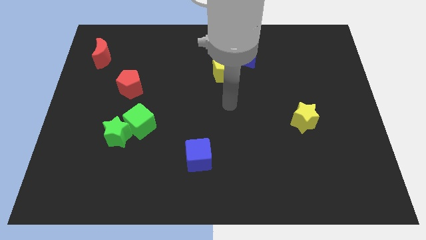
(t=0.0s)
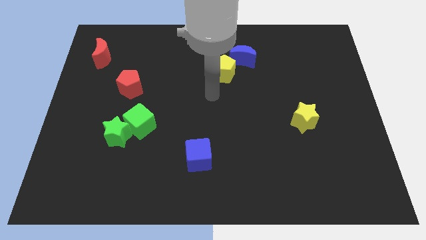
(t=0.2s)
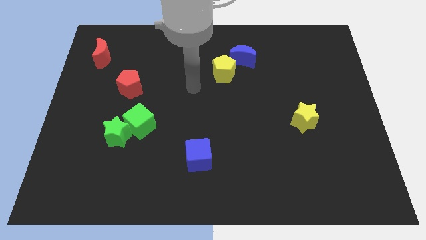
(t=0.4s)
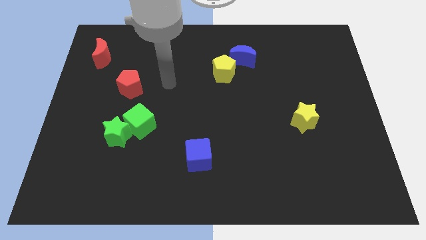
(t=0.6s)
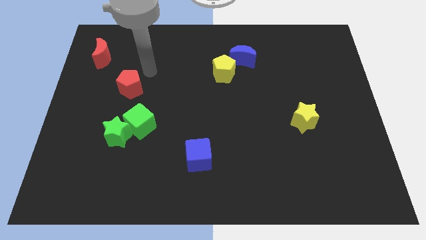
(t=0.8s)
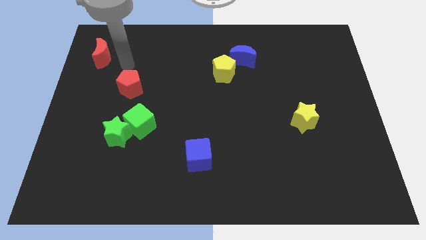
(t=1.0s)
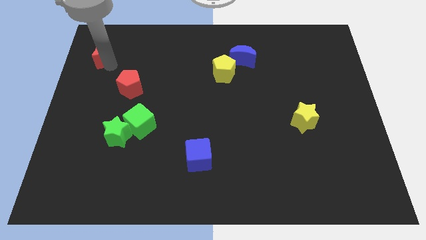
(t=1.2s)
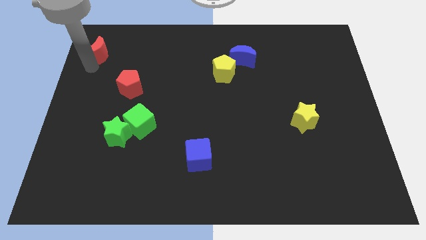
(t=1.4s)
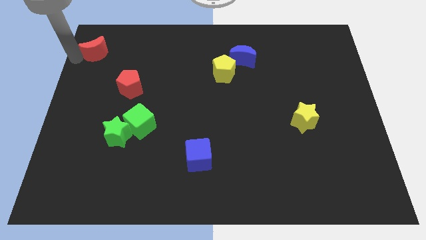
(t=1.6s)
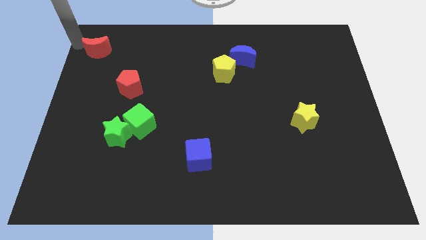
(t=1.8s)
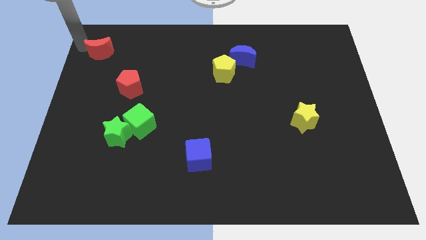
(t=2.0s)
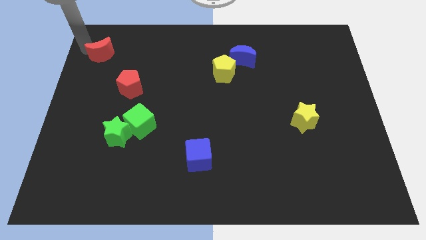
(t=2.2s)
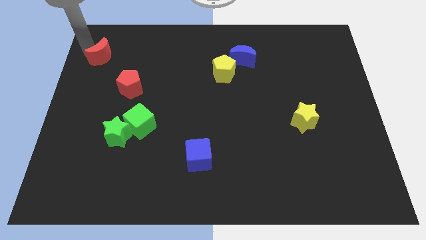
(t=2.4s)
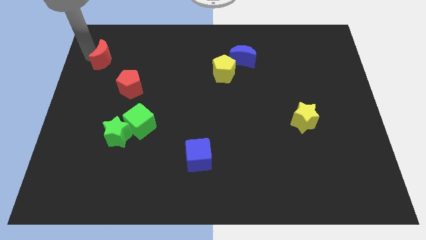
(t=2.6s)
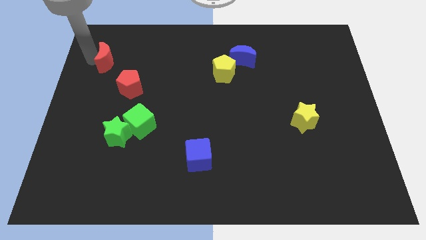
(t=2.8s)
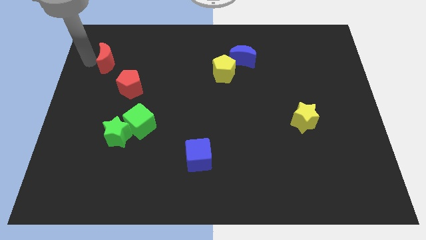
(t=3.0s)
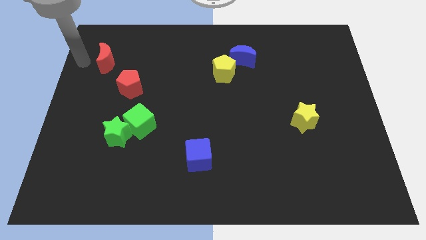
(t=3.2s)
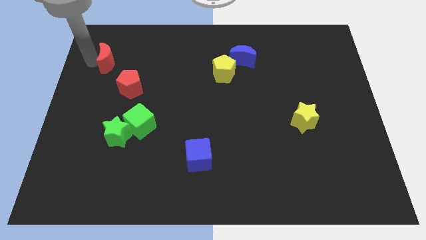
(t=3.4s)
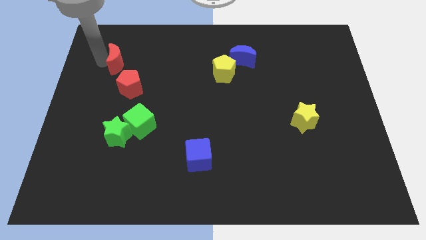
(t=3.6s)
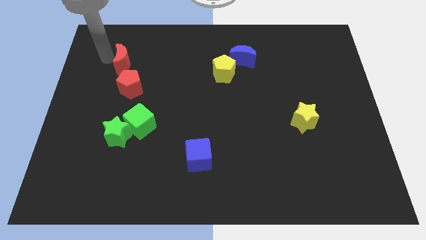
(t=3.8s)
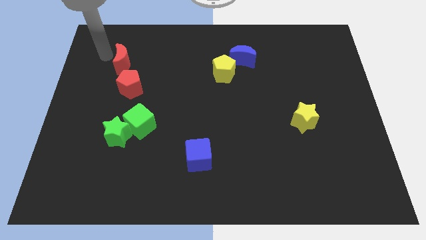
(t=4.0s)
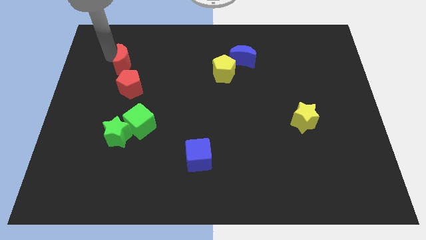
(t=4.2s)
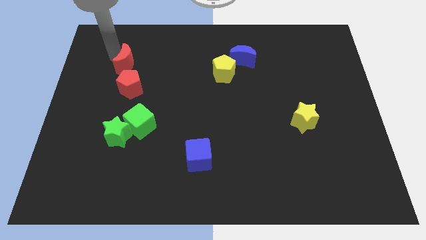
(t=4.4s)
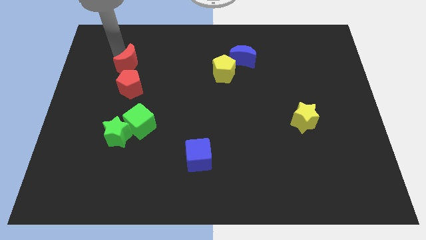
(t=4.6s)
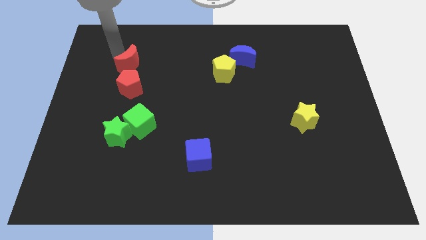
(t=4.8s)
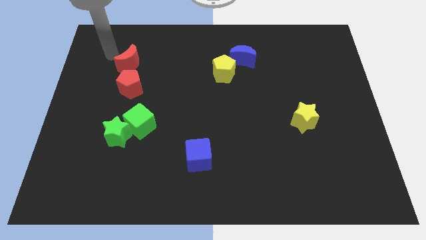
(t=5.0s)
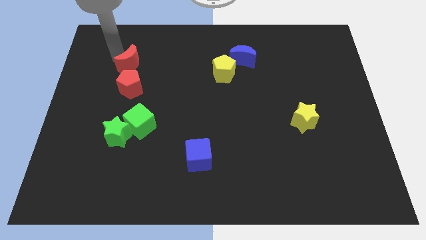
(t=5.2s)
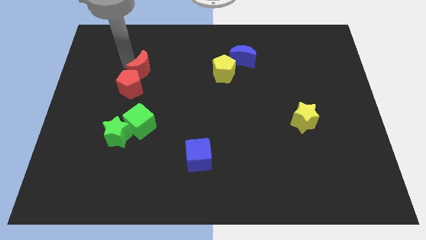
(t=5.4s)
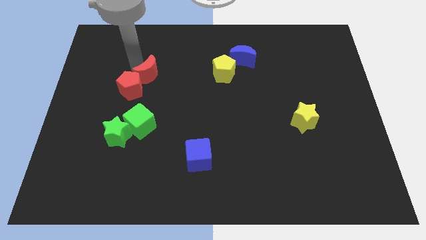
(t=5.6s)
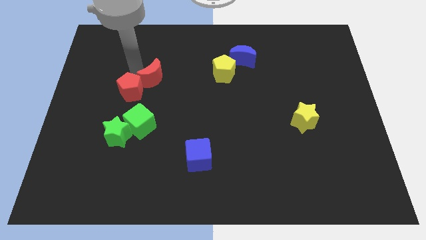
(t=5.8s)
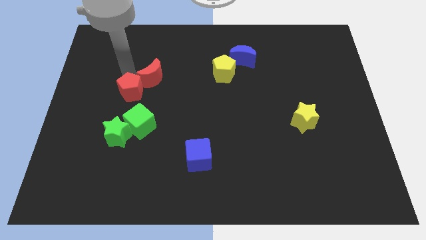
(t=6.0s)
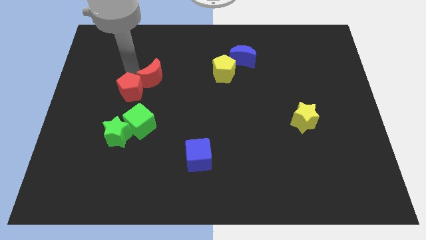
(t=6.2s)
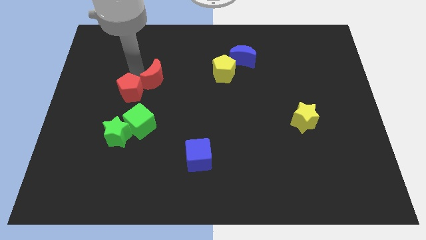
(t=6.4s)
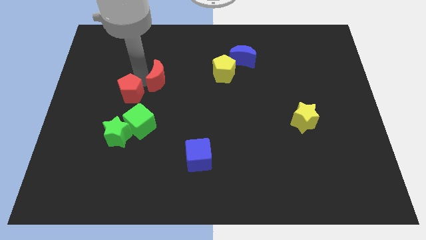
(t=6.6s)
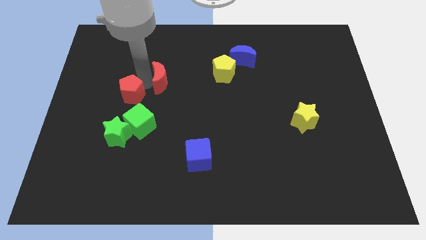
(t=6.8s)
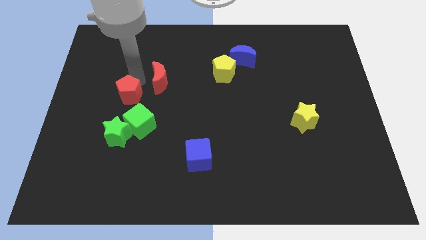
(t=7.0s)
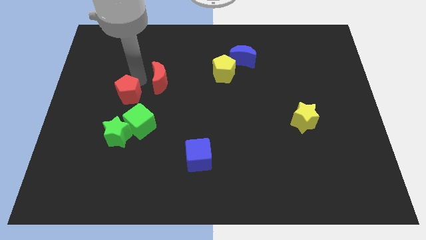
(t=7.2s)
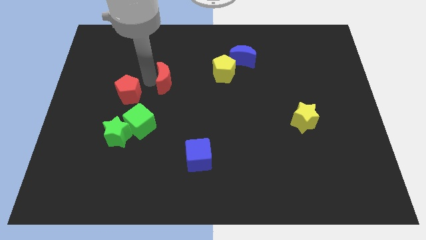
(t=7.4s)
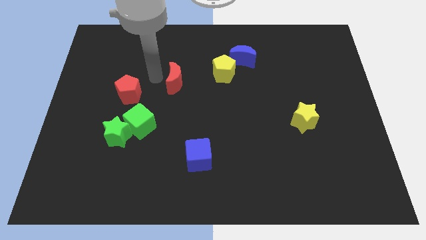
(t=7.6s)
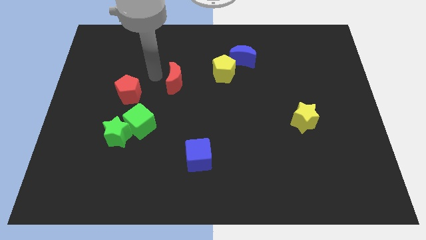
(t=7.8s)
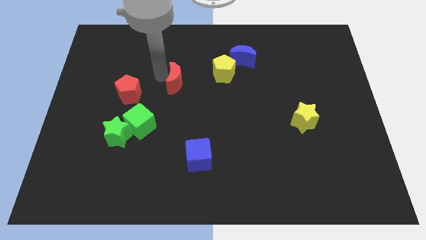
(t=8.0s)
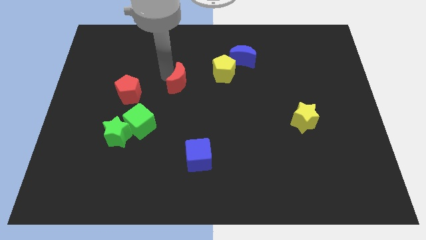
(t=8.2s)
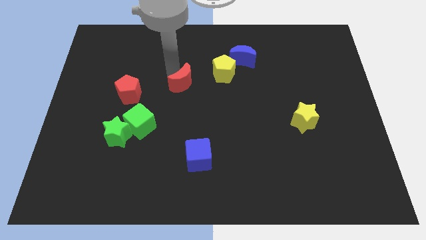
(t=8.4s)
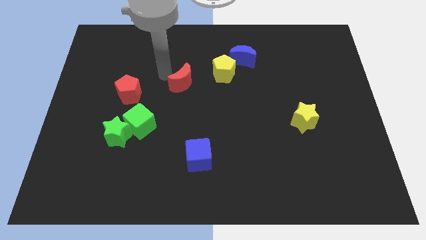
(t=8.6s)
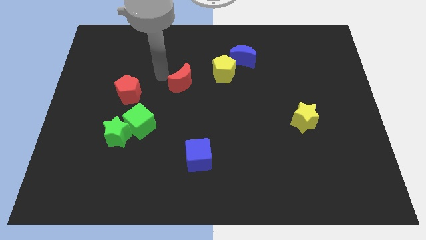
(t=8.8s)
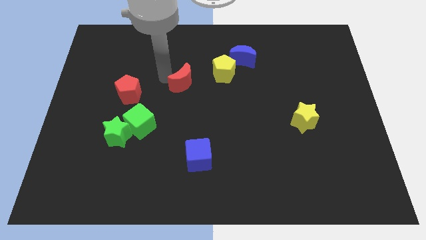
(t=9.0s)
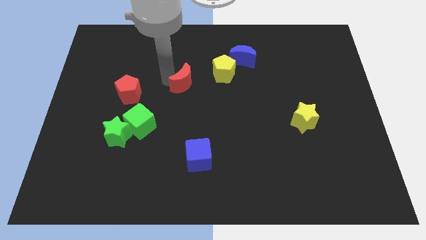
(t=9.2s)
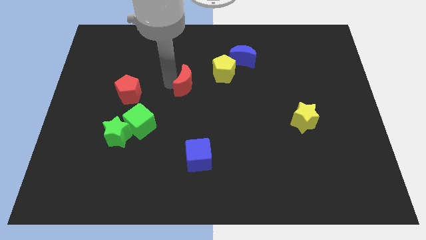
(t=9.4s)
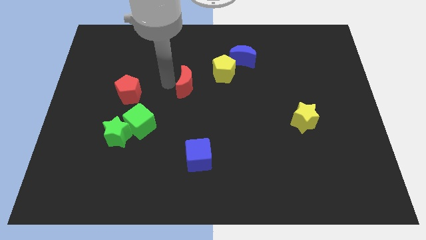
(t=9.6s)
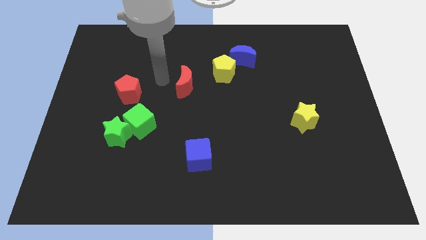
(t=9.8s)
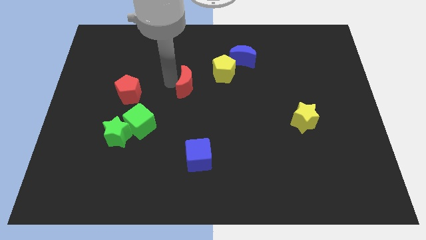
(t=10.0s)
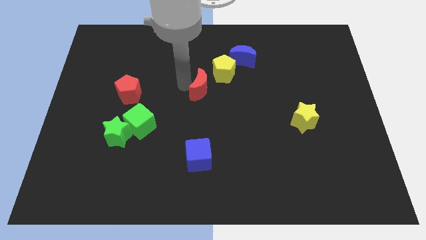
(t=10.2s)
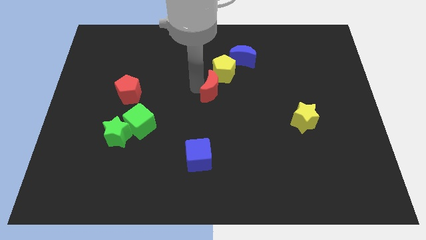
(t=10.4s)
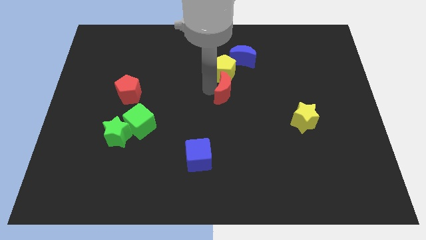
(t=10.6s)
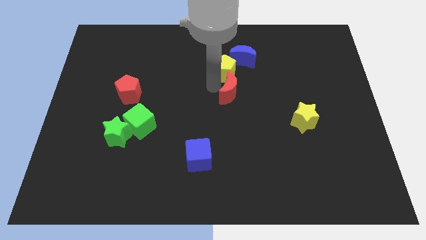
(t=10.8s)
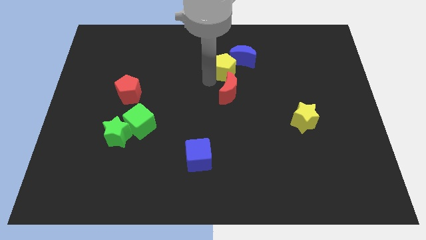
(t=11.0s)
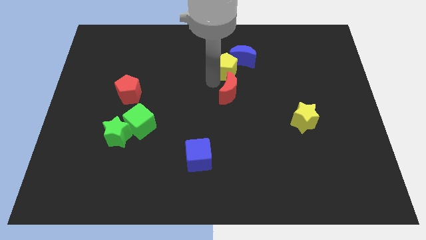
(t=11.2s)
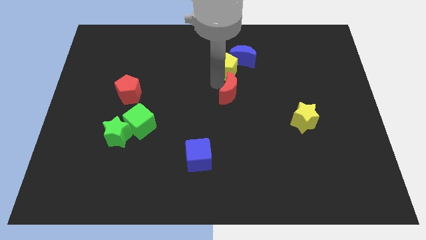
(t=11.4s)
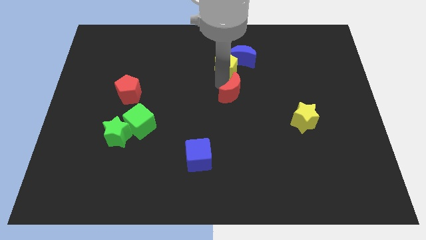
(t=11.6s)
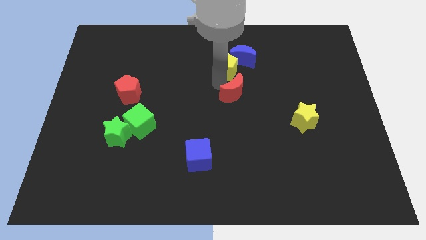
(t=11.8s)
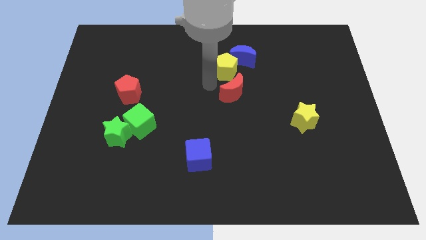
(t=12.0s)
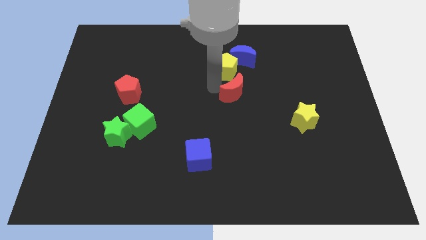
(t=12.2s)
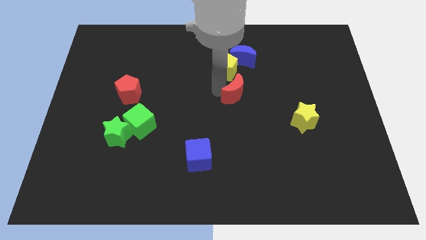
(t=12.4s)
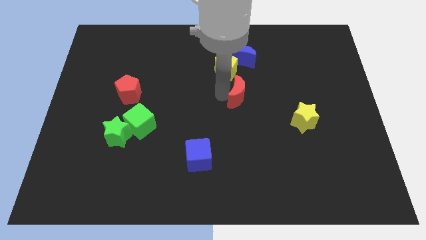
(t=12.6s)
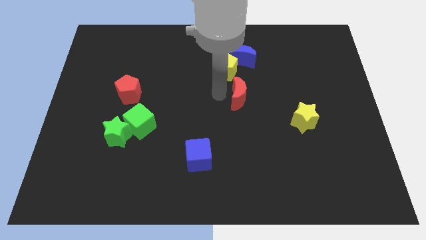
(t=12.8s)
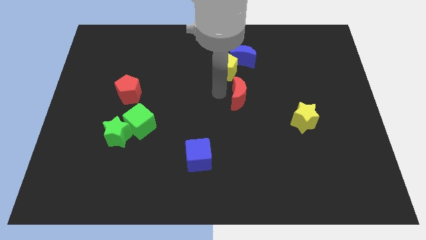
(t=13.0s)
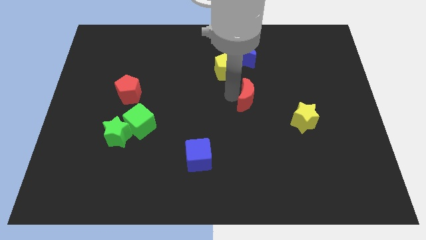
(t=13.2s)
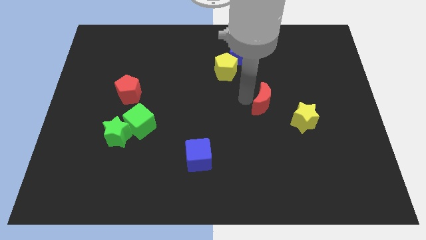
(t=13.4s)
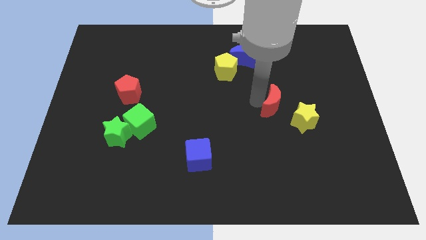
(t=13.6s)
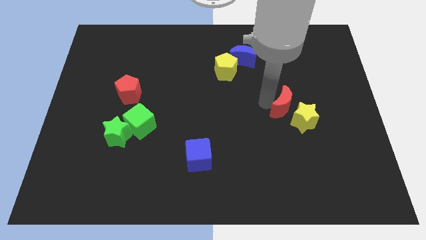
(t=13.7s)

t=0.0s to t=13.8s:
push the red moon close to the yellow star

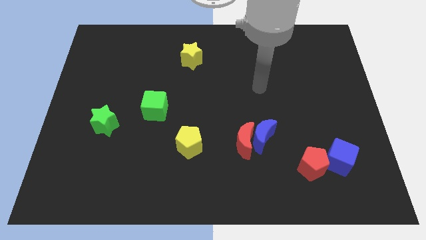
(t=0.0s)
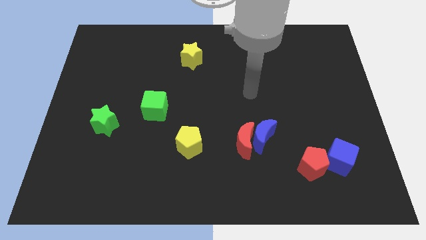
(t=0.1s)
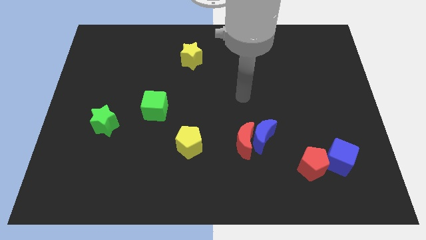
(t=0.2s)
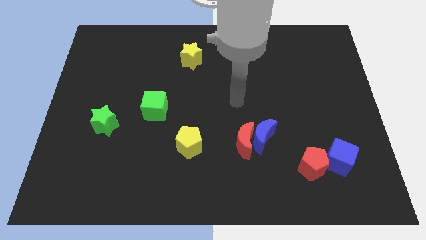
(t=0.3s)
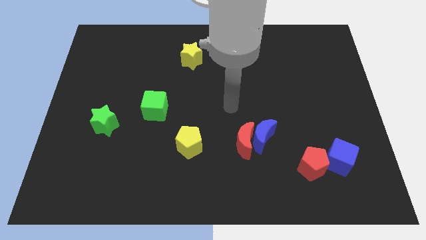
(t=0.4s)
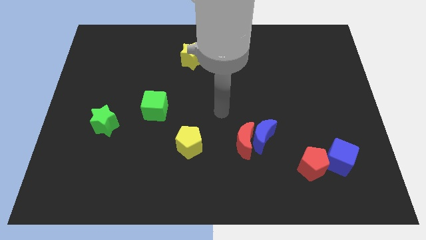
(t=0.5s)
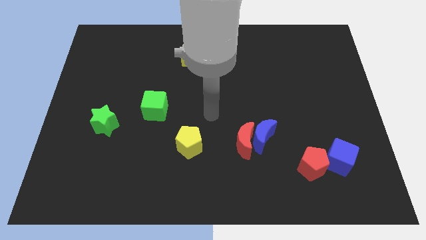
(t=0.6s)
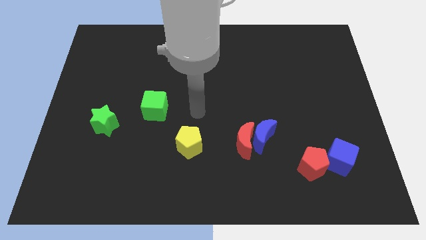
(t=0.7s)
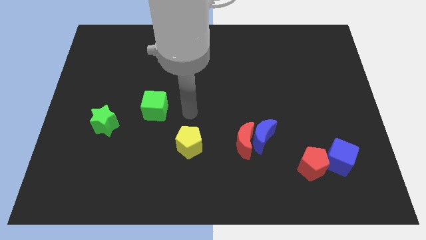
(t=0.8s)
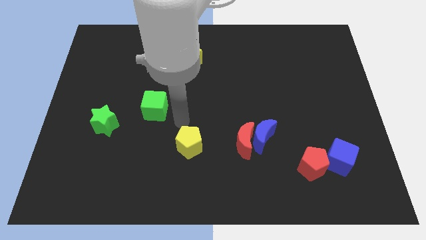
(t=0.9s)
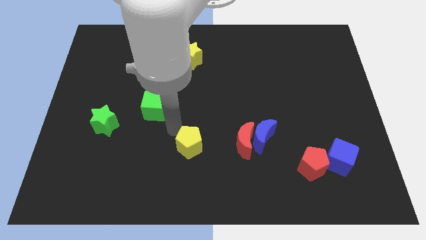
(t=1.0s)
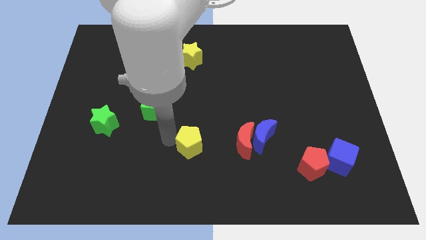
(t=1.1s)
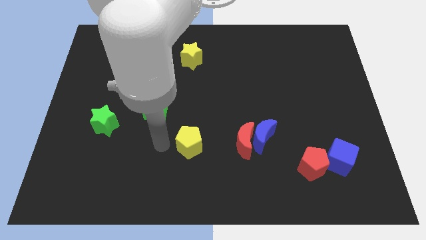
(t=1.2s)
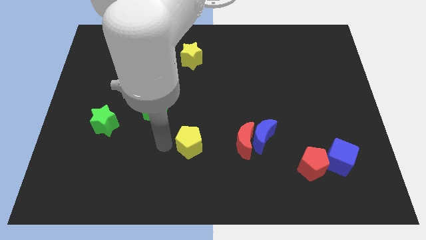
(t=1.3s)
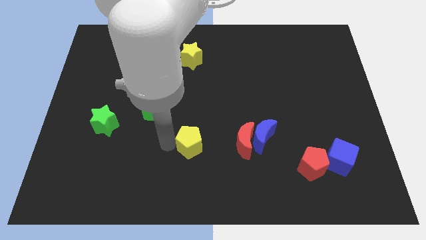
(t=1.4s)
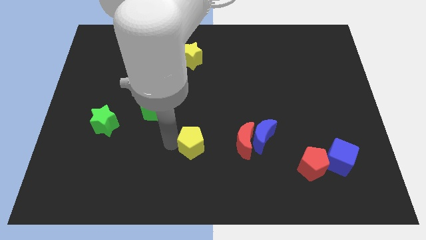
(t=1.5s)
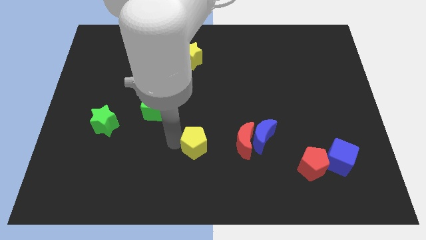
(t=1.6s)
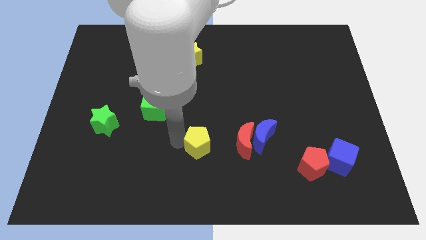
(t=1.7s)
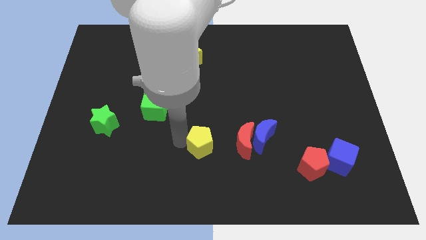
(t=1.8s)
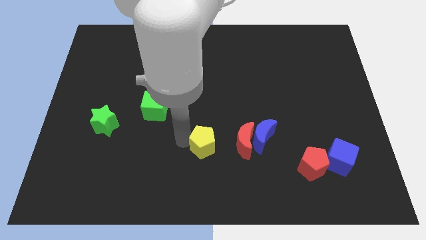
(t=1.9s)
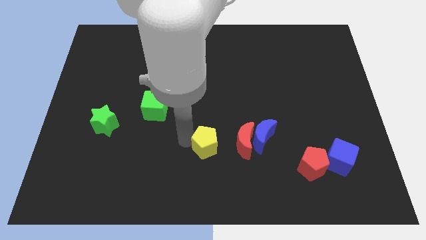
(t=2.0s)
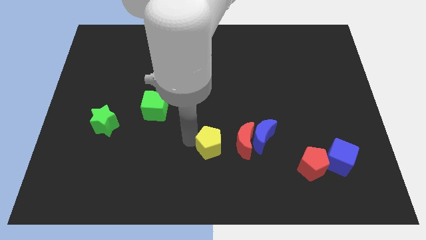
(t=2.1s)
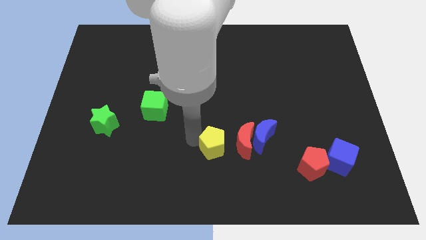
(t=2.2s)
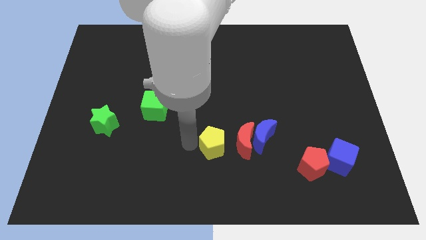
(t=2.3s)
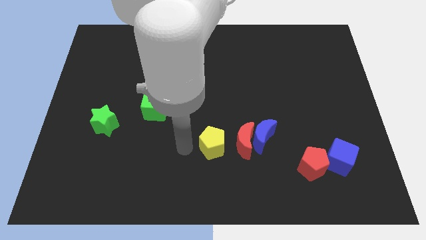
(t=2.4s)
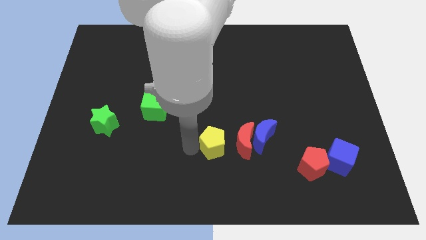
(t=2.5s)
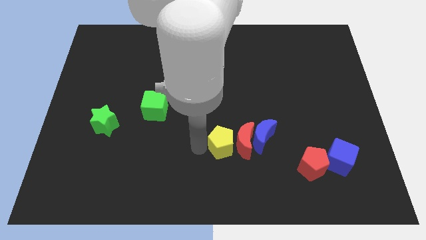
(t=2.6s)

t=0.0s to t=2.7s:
push the yellow pentagon to the red moon
